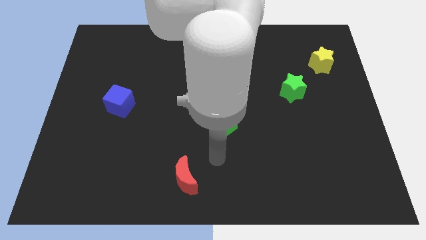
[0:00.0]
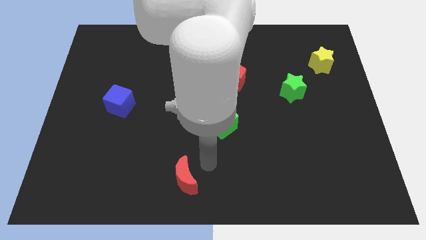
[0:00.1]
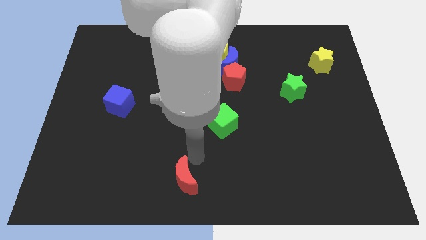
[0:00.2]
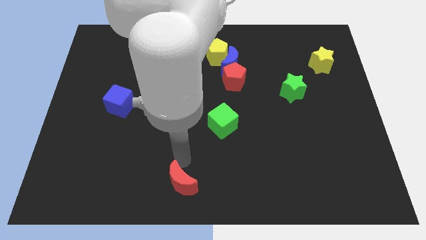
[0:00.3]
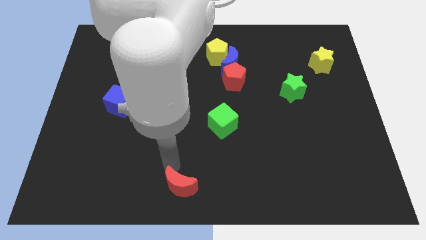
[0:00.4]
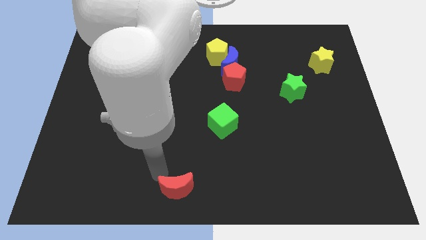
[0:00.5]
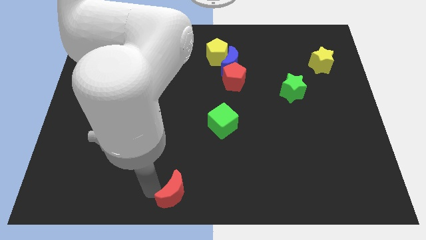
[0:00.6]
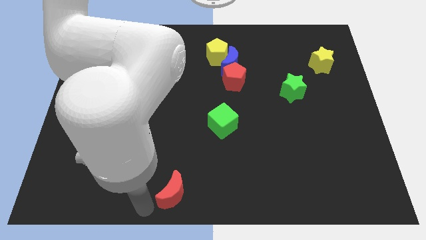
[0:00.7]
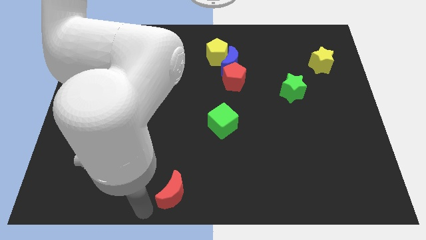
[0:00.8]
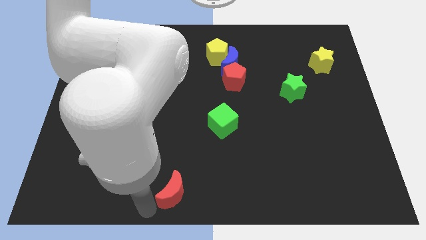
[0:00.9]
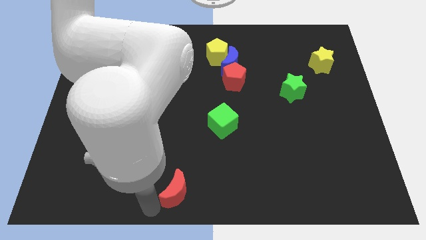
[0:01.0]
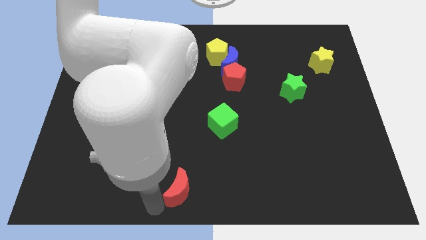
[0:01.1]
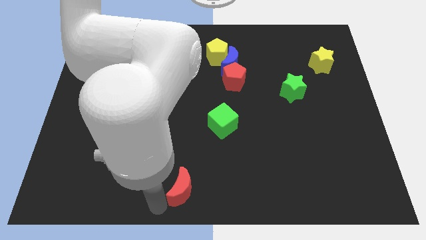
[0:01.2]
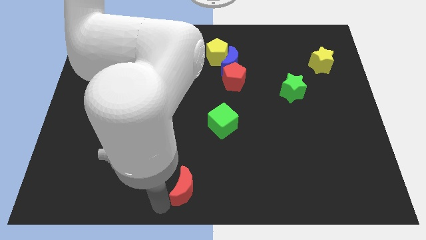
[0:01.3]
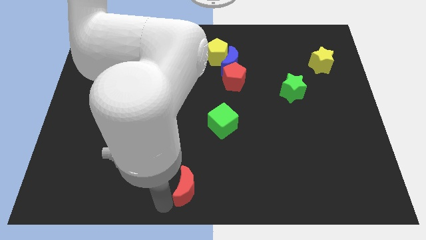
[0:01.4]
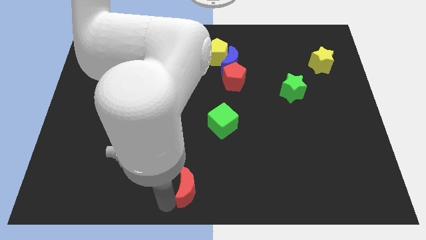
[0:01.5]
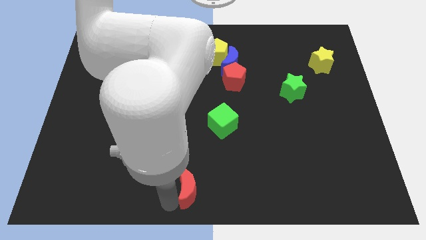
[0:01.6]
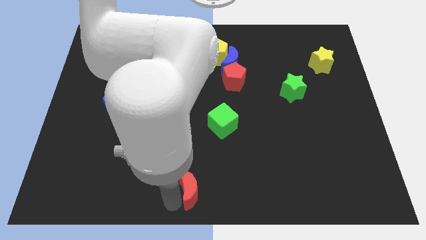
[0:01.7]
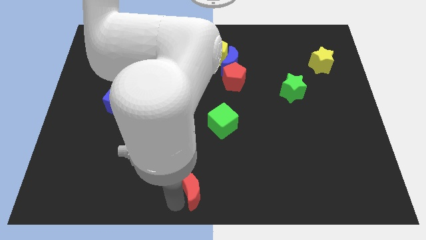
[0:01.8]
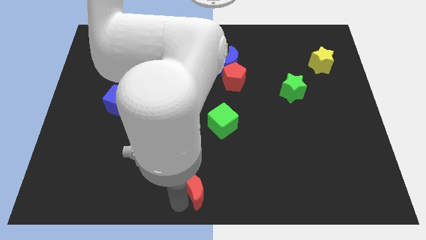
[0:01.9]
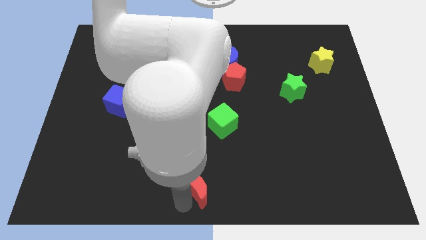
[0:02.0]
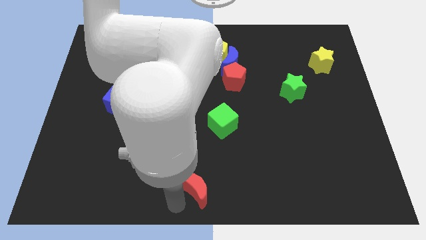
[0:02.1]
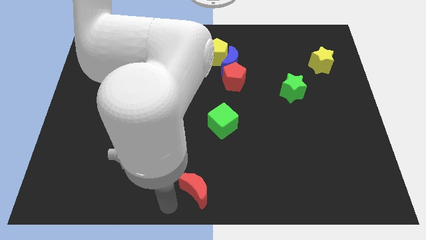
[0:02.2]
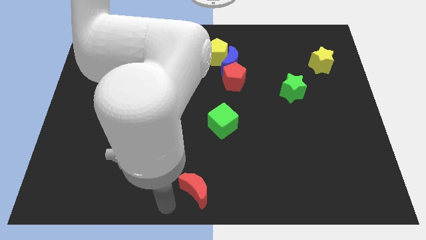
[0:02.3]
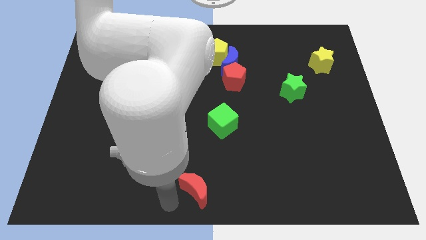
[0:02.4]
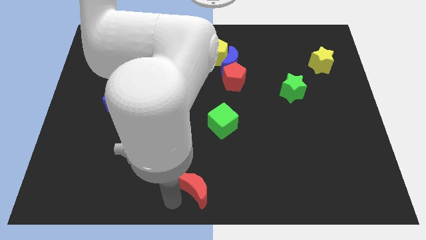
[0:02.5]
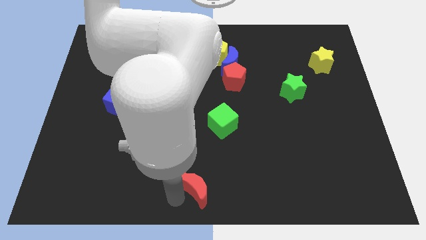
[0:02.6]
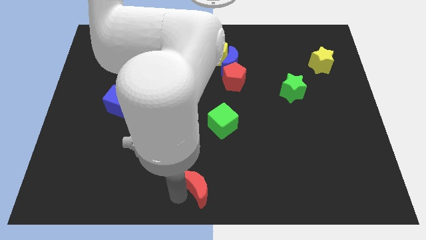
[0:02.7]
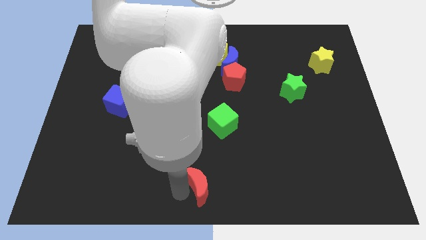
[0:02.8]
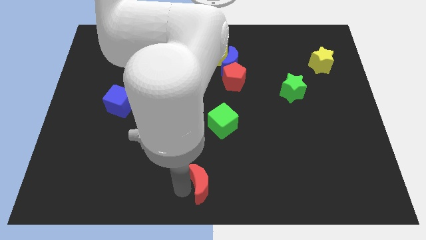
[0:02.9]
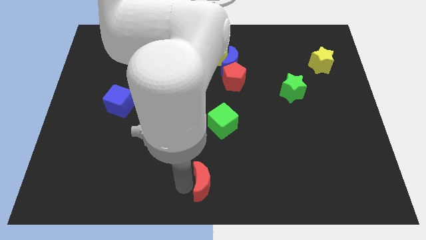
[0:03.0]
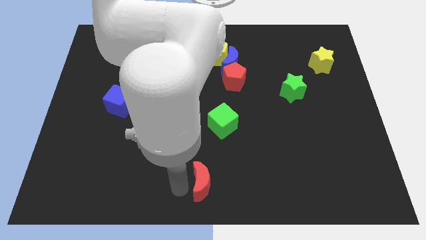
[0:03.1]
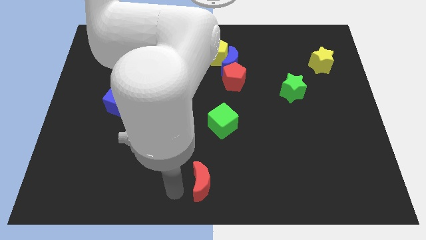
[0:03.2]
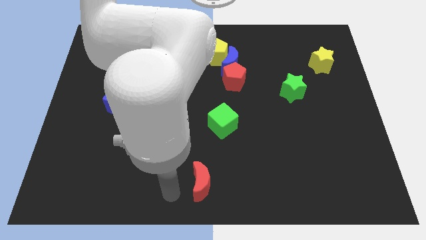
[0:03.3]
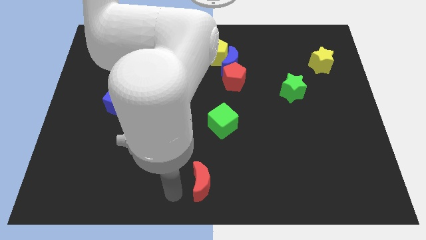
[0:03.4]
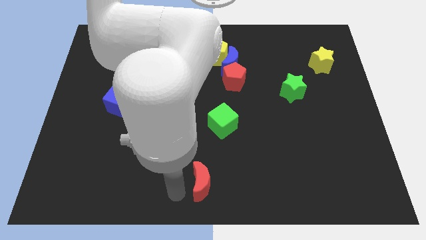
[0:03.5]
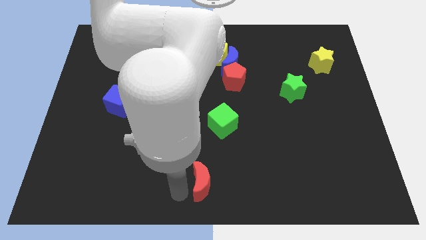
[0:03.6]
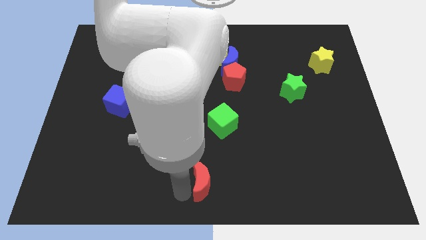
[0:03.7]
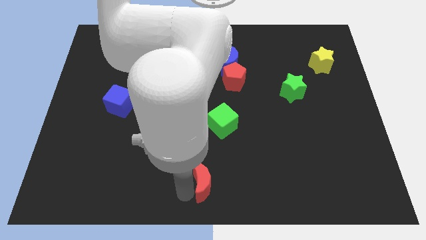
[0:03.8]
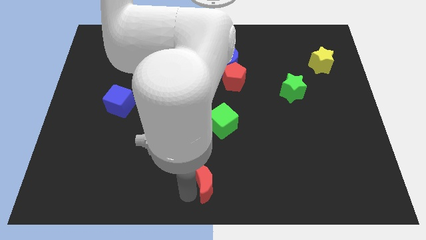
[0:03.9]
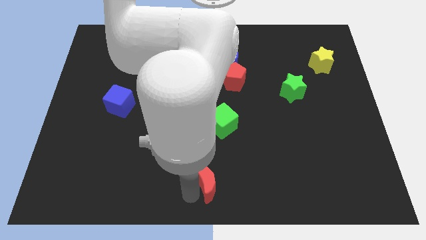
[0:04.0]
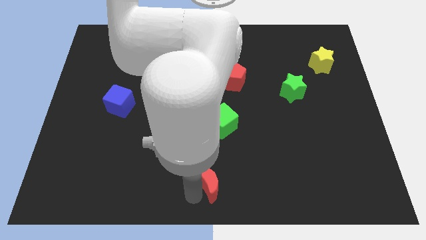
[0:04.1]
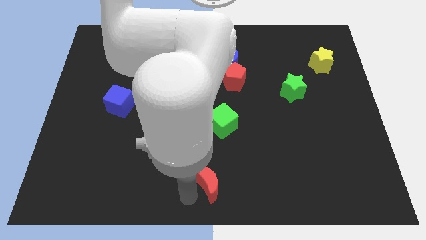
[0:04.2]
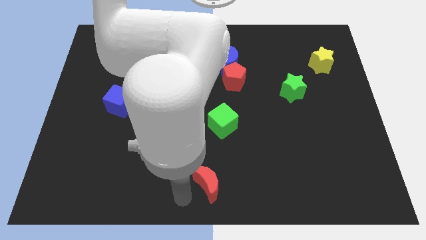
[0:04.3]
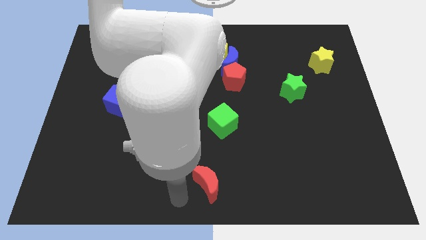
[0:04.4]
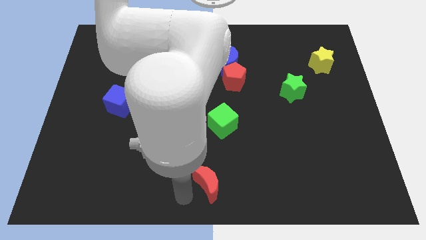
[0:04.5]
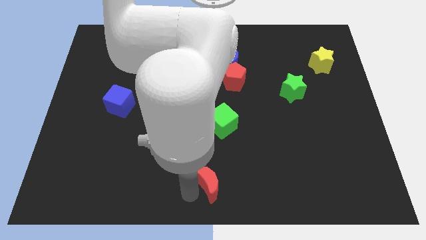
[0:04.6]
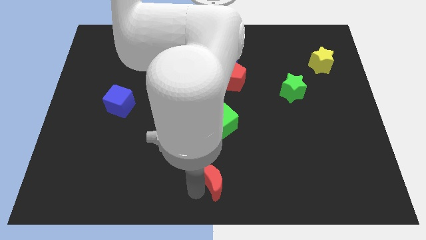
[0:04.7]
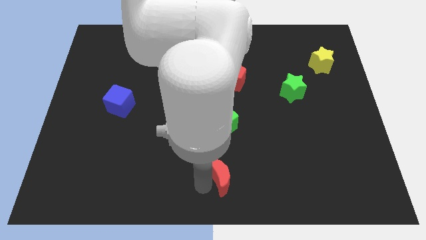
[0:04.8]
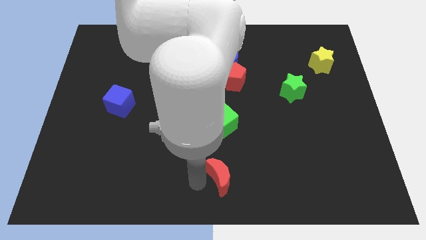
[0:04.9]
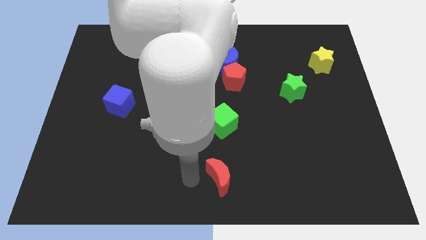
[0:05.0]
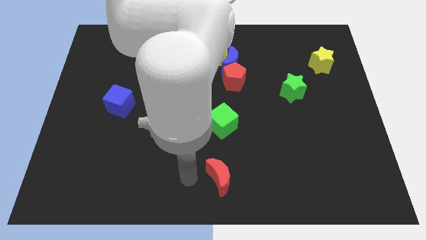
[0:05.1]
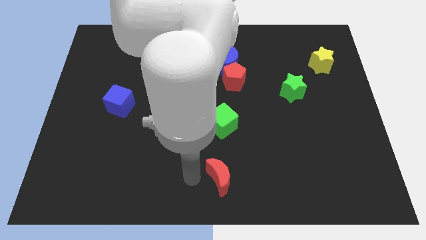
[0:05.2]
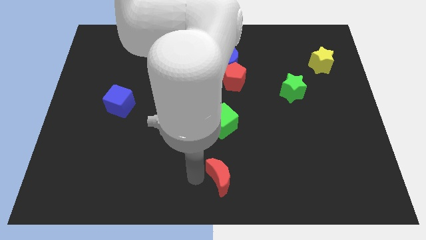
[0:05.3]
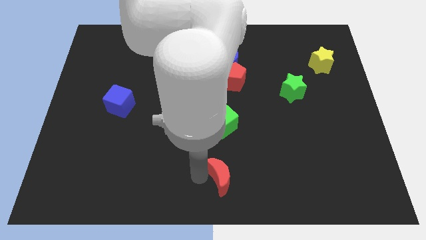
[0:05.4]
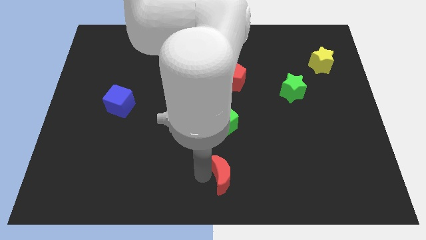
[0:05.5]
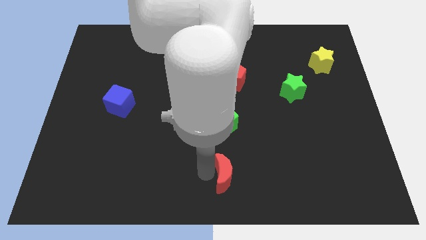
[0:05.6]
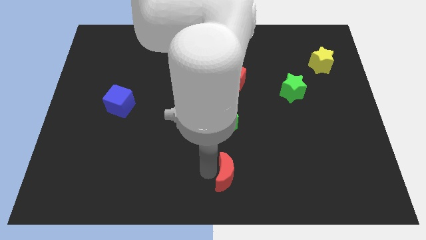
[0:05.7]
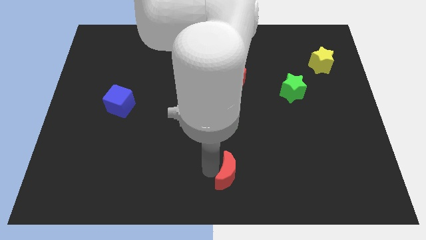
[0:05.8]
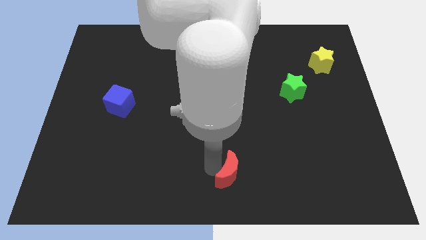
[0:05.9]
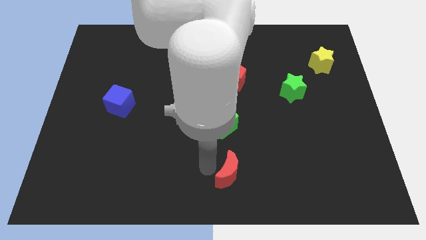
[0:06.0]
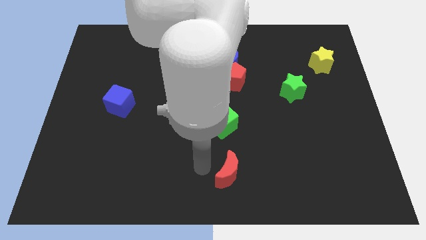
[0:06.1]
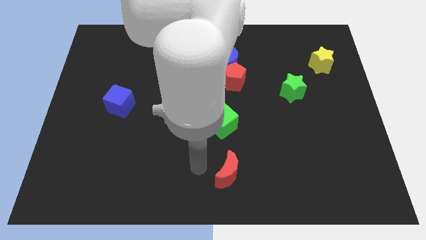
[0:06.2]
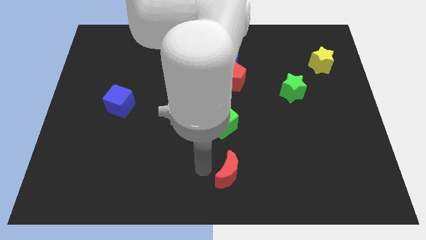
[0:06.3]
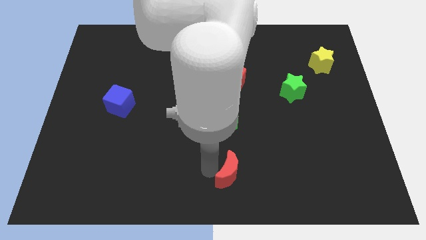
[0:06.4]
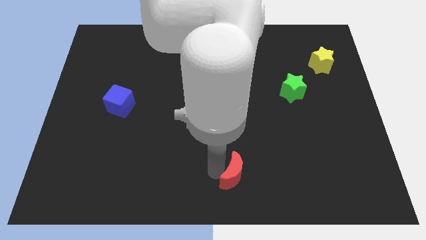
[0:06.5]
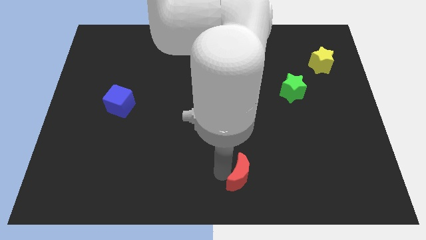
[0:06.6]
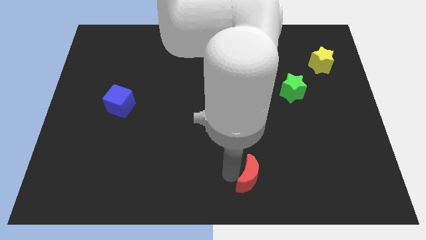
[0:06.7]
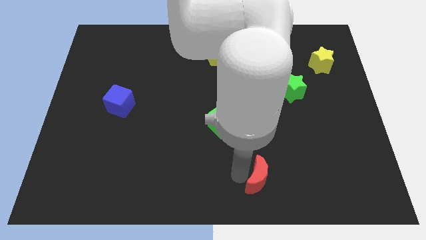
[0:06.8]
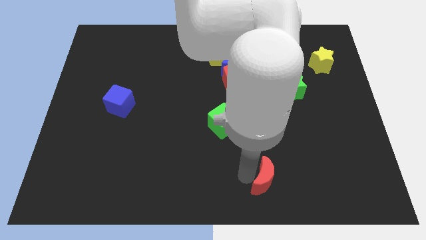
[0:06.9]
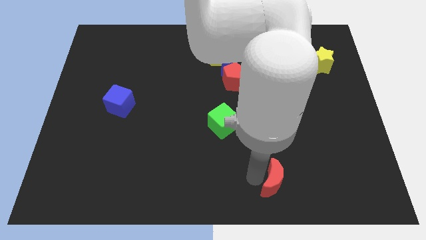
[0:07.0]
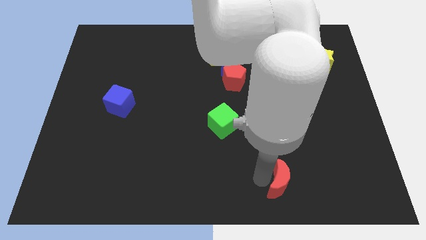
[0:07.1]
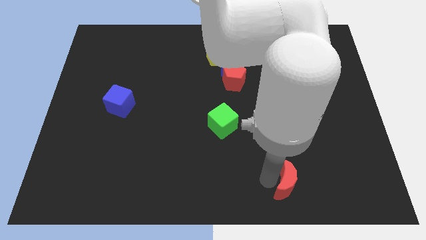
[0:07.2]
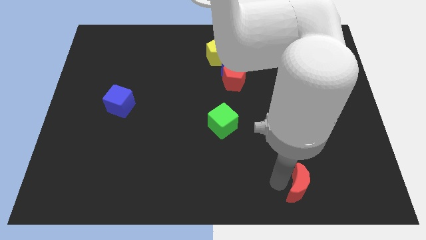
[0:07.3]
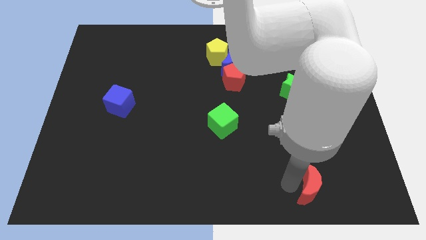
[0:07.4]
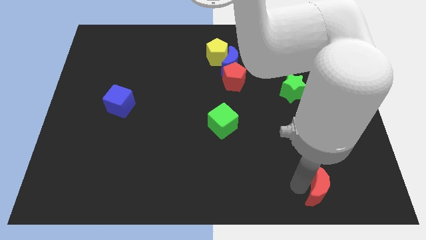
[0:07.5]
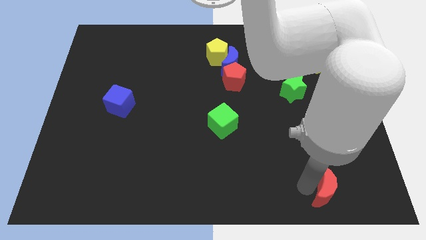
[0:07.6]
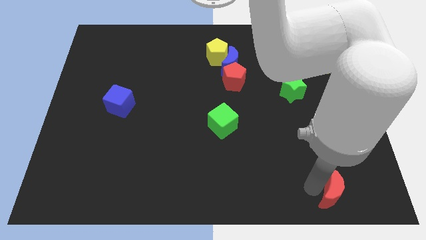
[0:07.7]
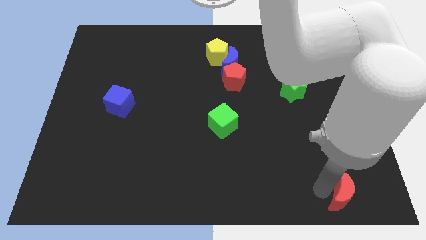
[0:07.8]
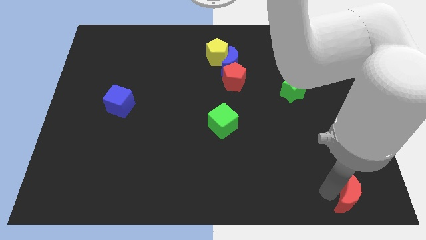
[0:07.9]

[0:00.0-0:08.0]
push the red moon to the lower right corner
